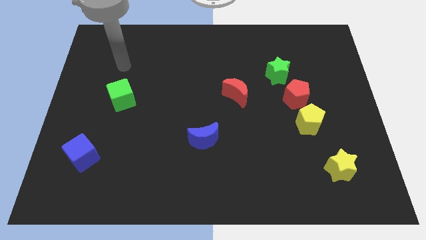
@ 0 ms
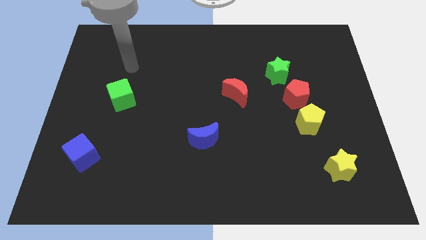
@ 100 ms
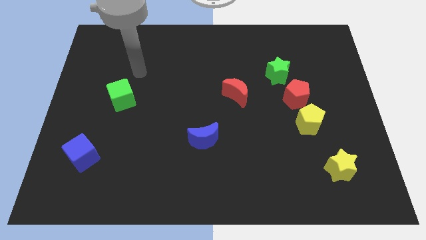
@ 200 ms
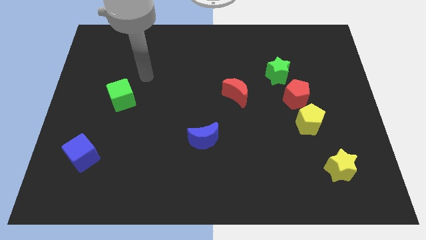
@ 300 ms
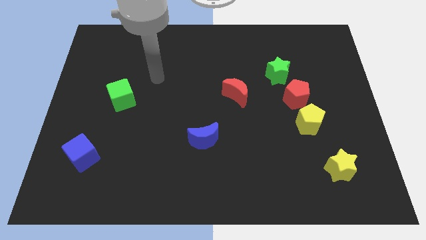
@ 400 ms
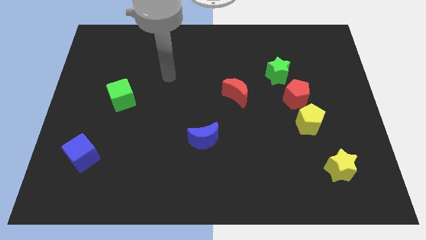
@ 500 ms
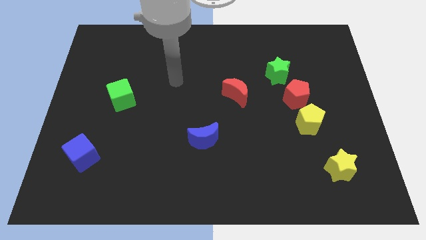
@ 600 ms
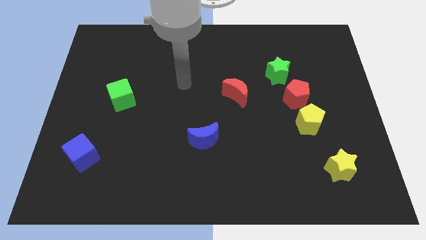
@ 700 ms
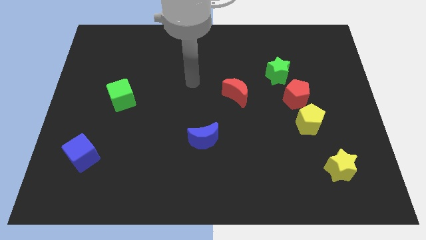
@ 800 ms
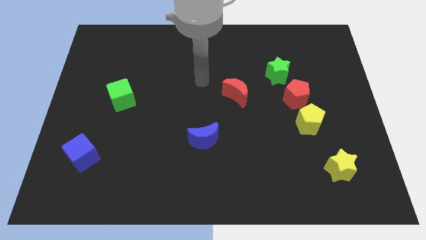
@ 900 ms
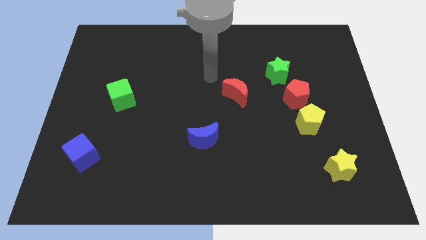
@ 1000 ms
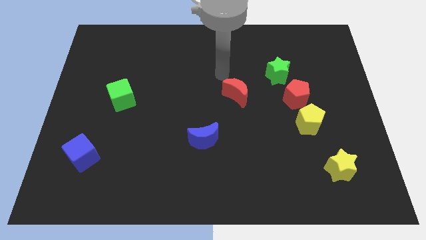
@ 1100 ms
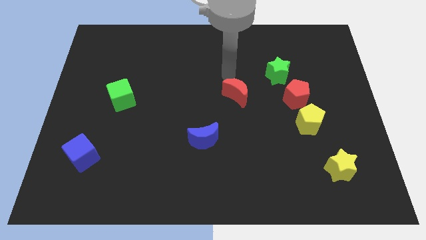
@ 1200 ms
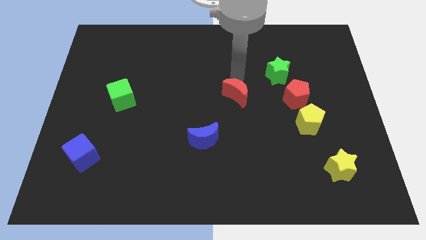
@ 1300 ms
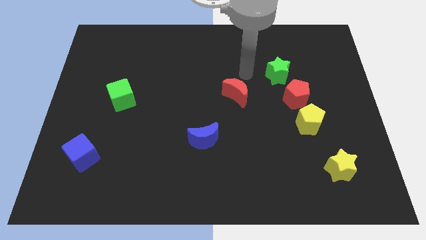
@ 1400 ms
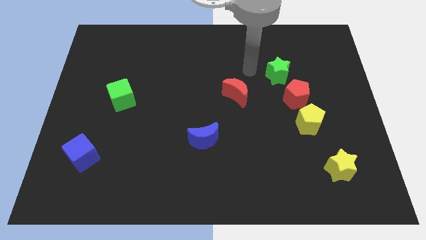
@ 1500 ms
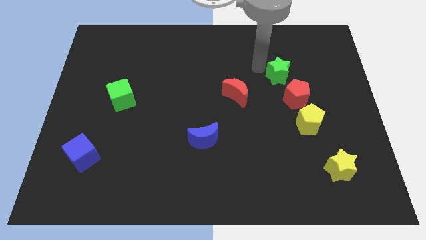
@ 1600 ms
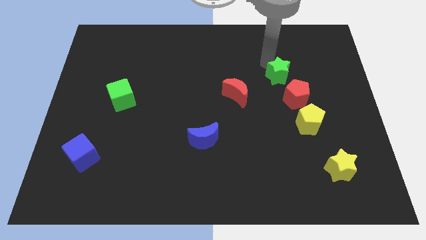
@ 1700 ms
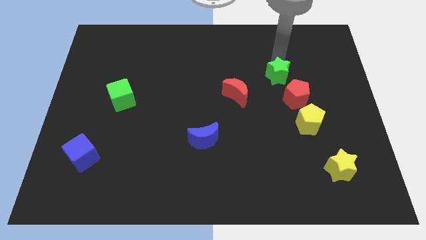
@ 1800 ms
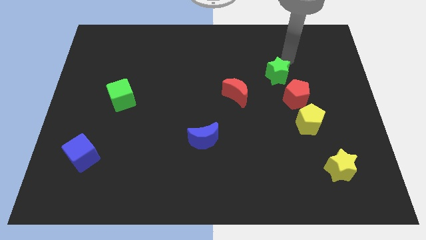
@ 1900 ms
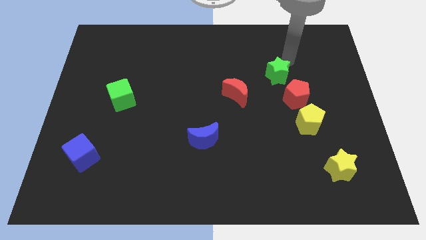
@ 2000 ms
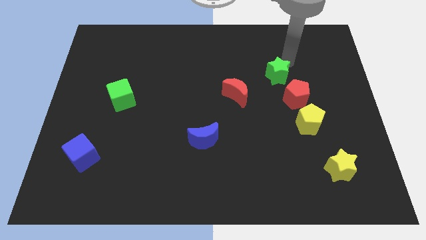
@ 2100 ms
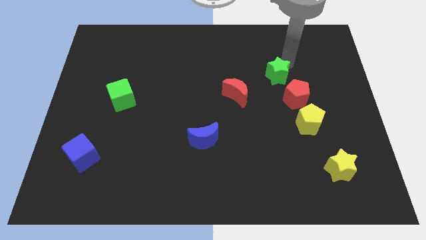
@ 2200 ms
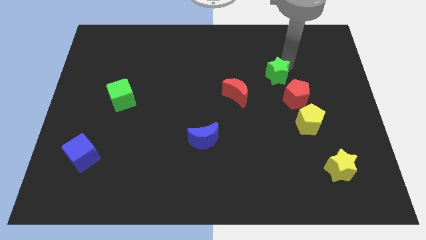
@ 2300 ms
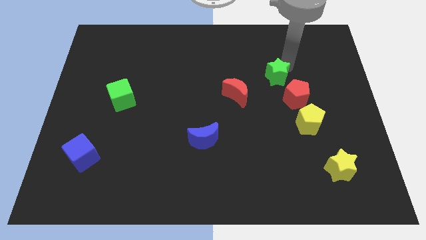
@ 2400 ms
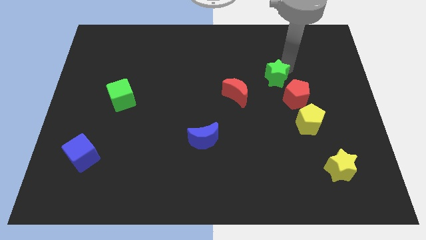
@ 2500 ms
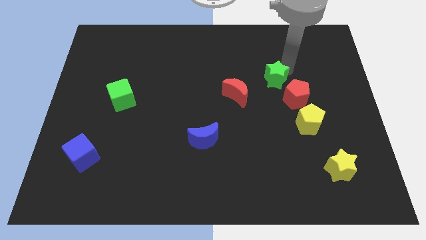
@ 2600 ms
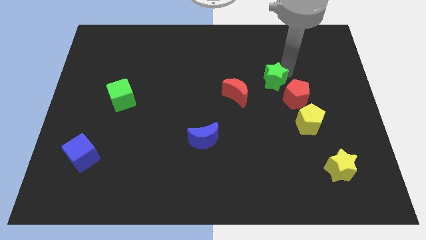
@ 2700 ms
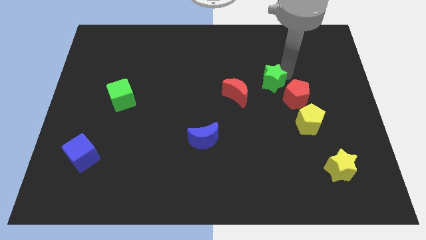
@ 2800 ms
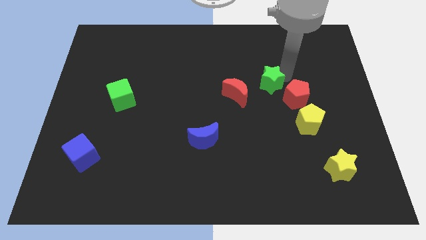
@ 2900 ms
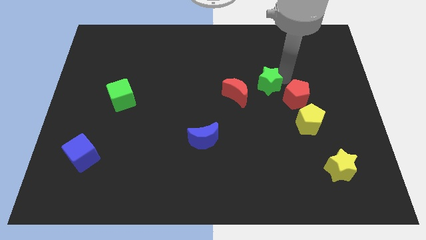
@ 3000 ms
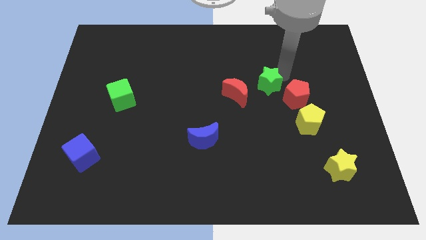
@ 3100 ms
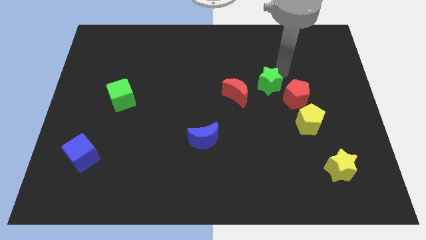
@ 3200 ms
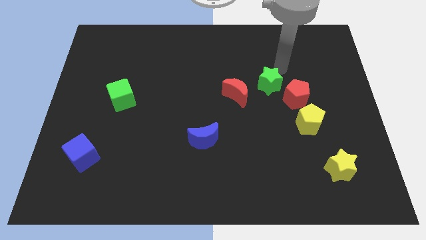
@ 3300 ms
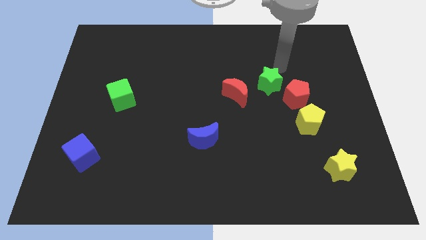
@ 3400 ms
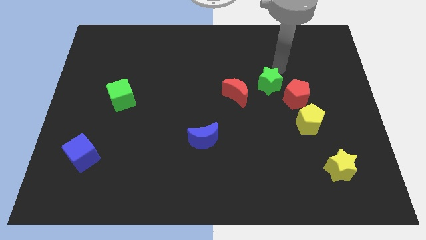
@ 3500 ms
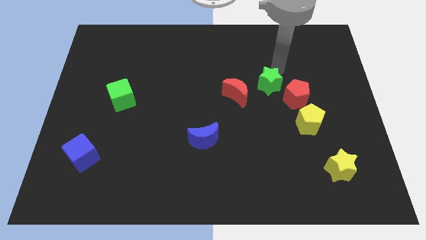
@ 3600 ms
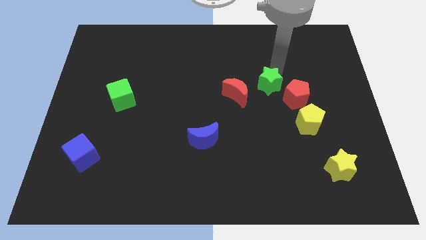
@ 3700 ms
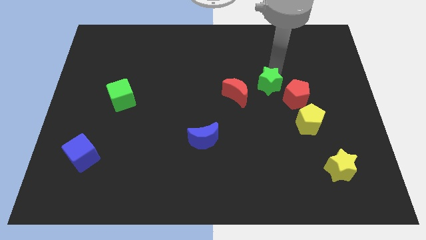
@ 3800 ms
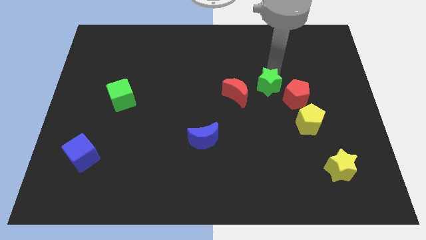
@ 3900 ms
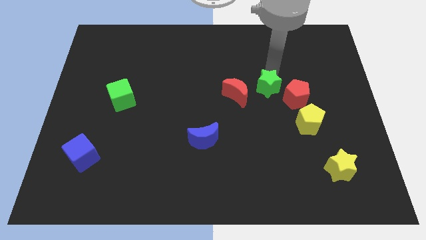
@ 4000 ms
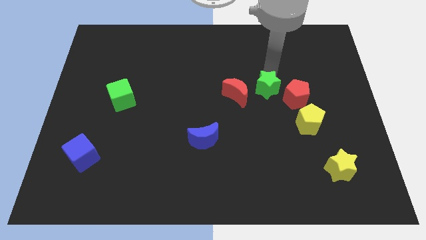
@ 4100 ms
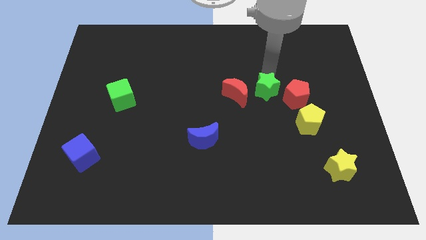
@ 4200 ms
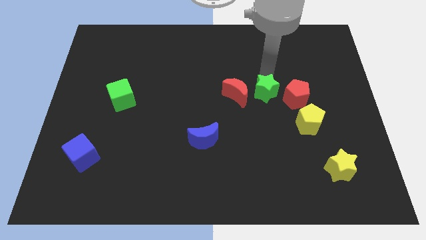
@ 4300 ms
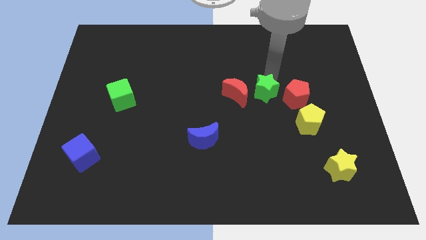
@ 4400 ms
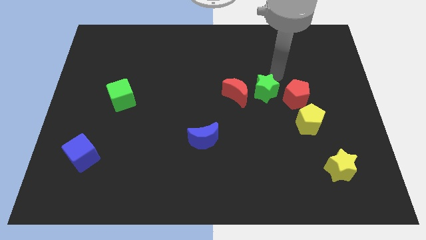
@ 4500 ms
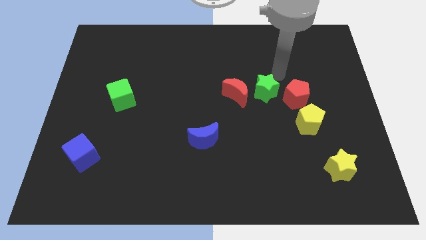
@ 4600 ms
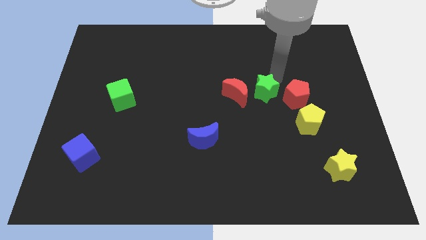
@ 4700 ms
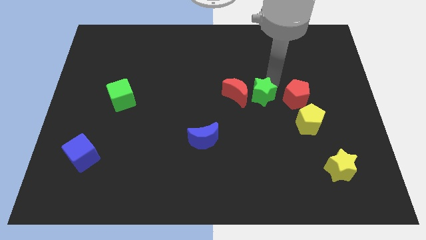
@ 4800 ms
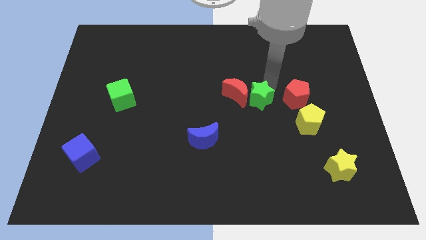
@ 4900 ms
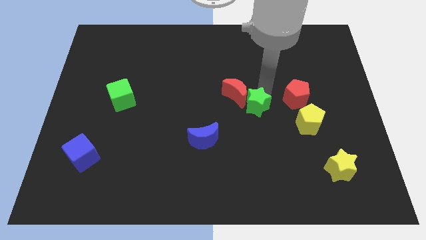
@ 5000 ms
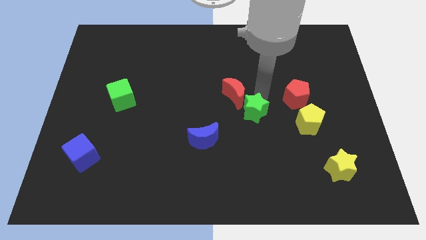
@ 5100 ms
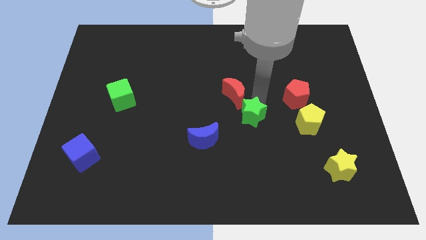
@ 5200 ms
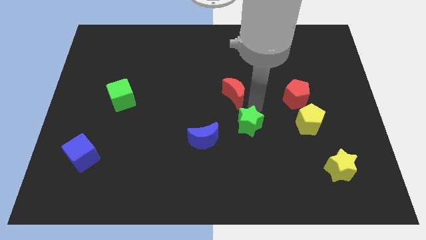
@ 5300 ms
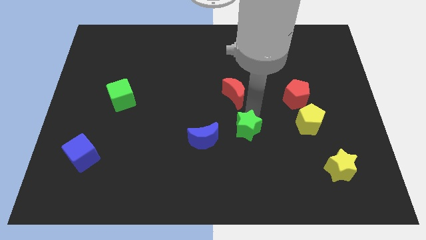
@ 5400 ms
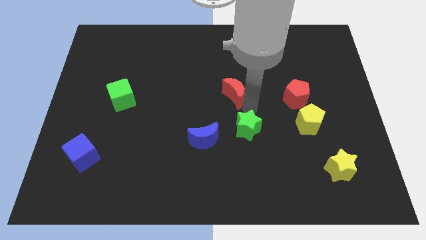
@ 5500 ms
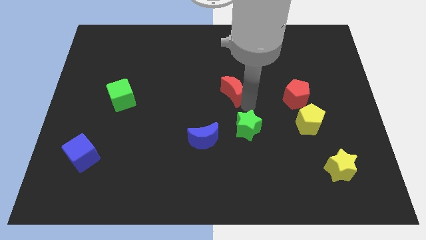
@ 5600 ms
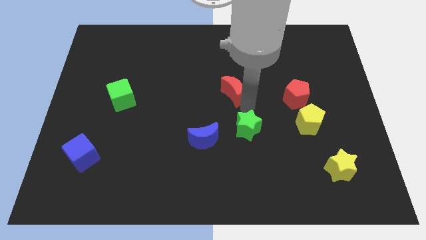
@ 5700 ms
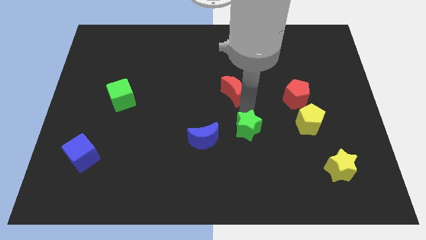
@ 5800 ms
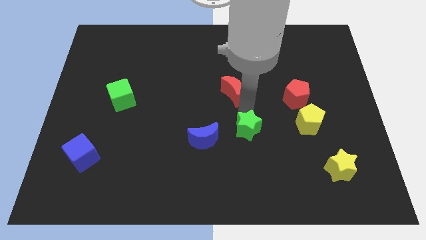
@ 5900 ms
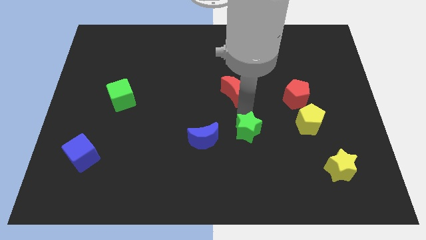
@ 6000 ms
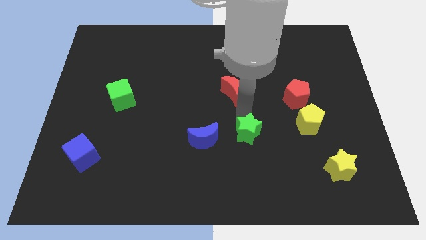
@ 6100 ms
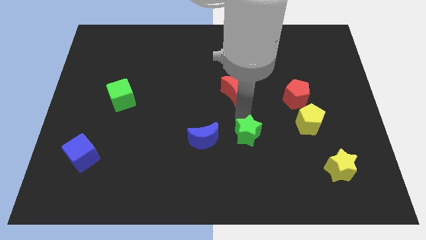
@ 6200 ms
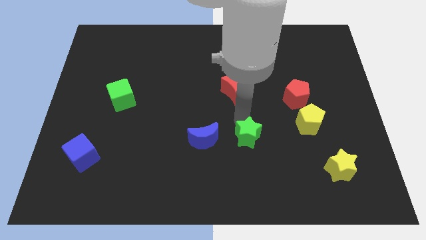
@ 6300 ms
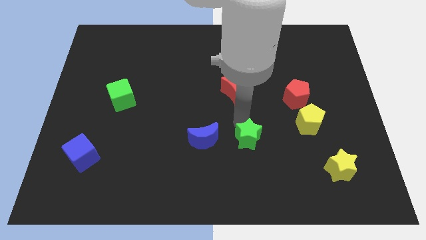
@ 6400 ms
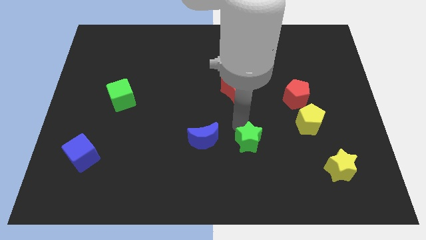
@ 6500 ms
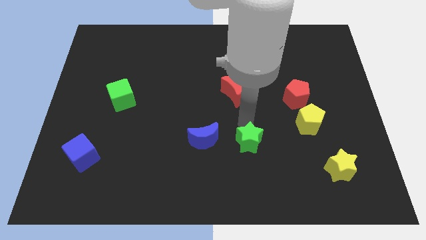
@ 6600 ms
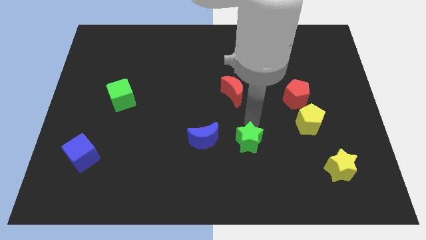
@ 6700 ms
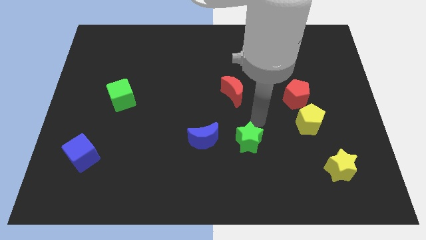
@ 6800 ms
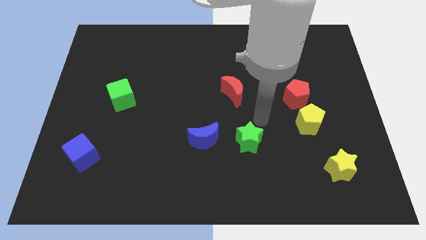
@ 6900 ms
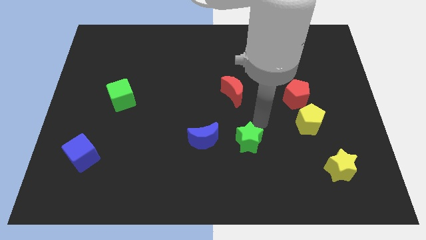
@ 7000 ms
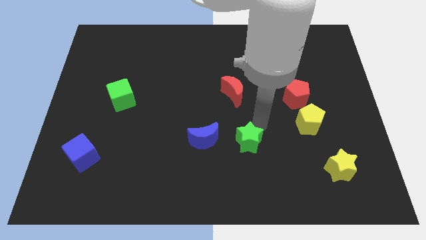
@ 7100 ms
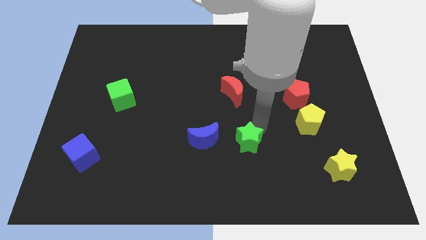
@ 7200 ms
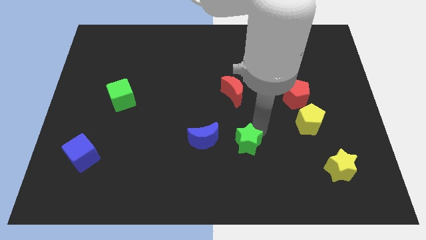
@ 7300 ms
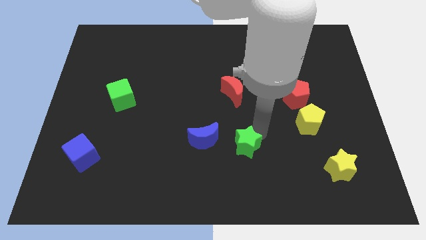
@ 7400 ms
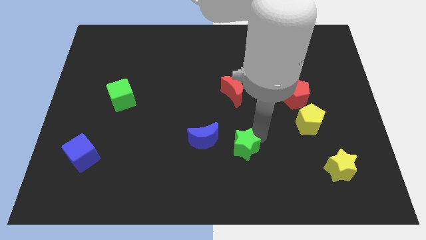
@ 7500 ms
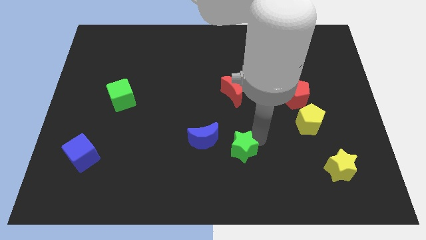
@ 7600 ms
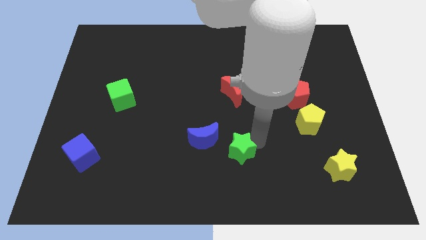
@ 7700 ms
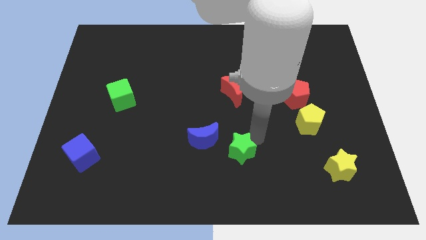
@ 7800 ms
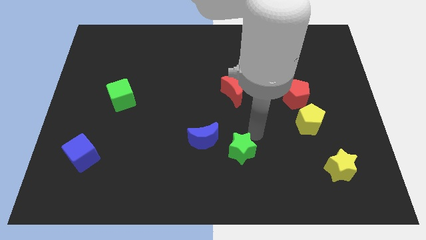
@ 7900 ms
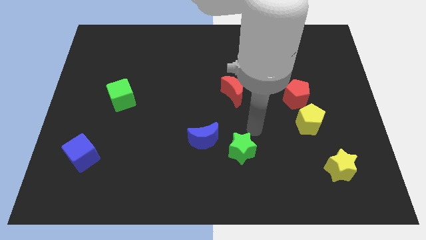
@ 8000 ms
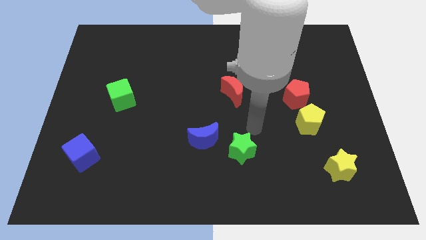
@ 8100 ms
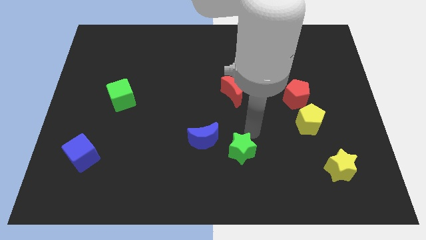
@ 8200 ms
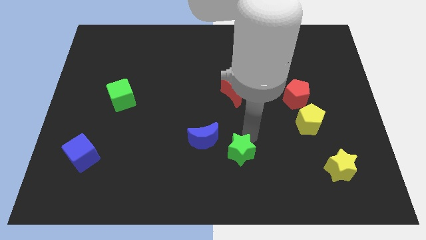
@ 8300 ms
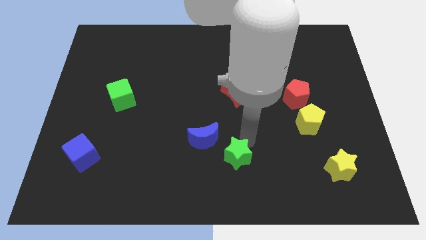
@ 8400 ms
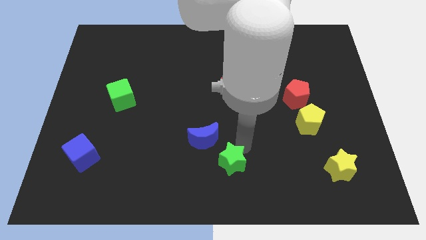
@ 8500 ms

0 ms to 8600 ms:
put the green star to the bottom side
